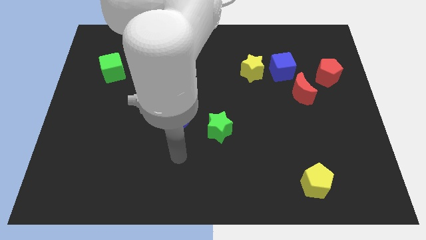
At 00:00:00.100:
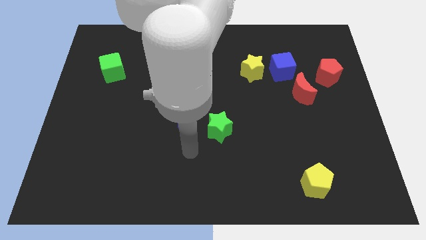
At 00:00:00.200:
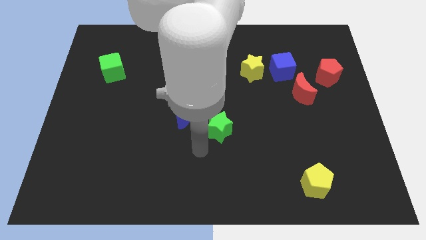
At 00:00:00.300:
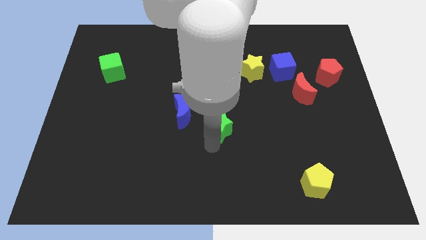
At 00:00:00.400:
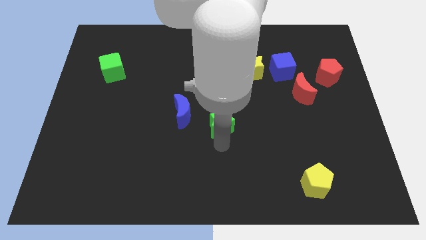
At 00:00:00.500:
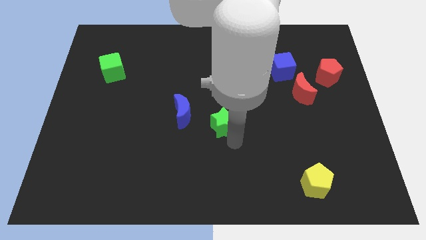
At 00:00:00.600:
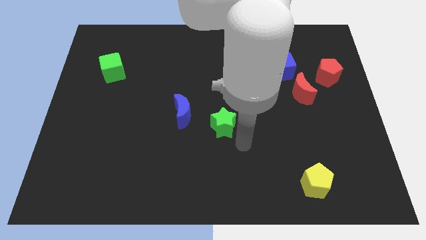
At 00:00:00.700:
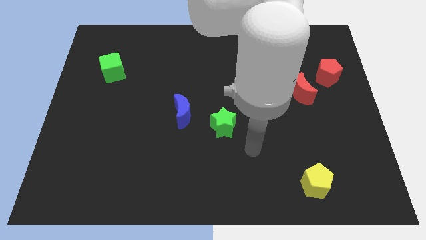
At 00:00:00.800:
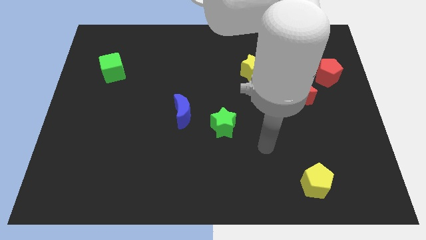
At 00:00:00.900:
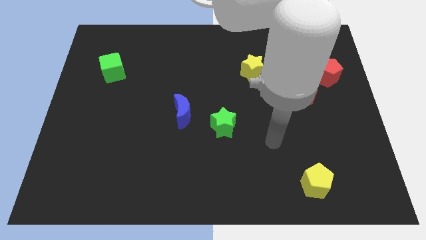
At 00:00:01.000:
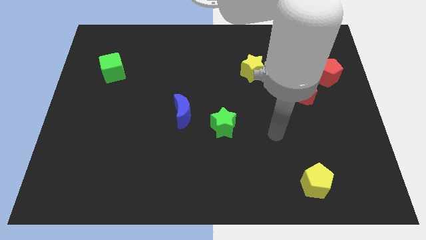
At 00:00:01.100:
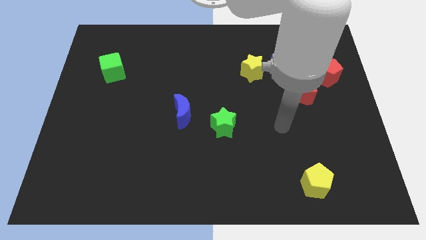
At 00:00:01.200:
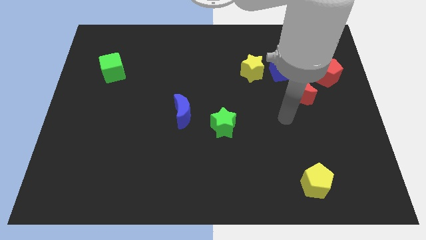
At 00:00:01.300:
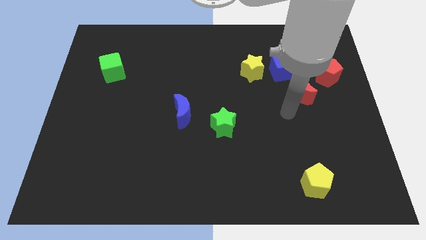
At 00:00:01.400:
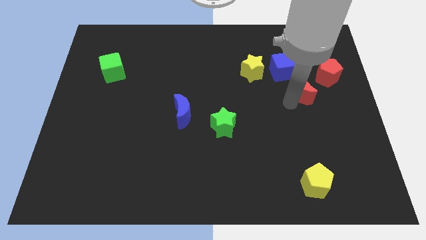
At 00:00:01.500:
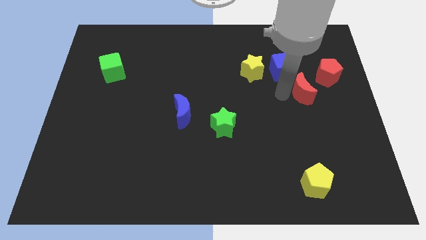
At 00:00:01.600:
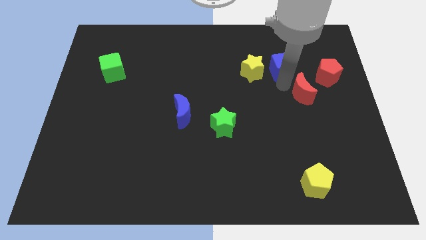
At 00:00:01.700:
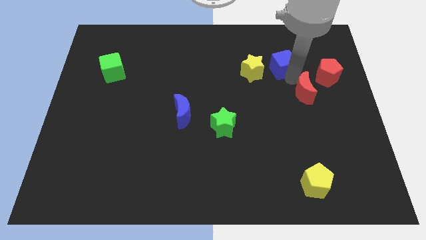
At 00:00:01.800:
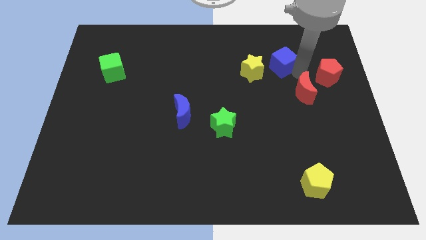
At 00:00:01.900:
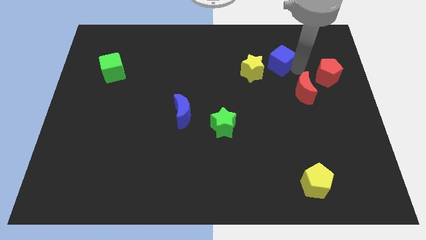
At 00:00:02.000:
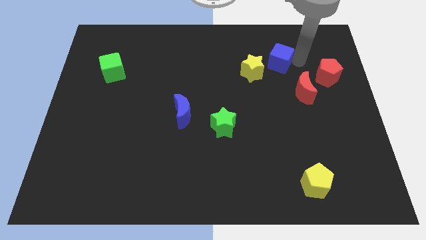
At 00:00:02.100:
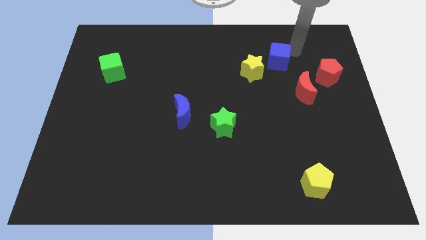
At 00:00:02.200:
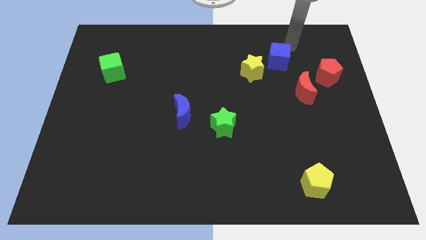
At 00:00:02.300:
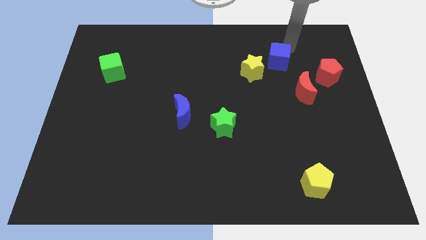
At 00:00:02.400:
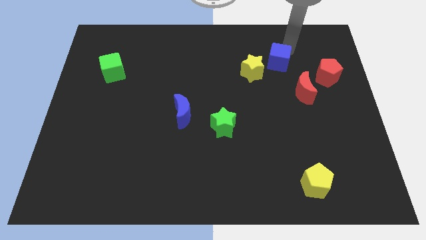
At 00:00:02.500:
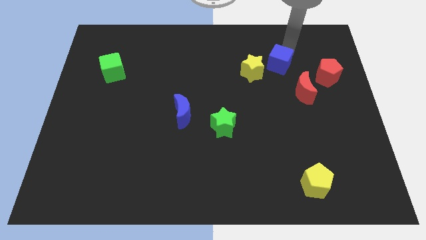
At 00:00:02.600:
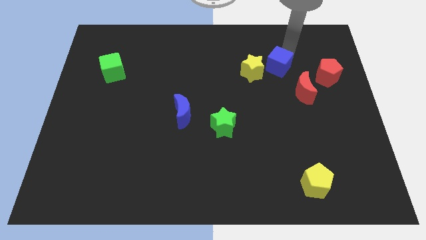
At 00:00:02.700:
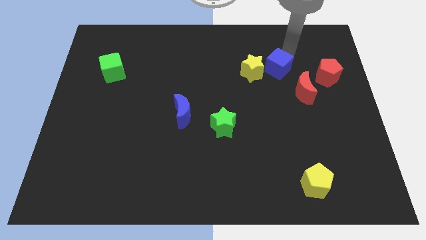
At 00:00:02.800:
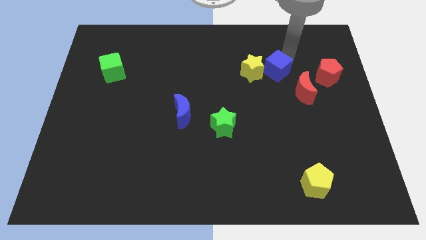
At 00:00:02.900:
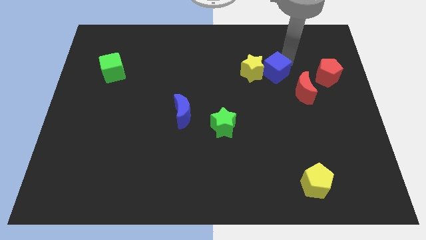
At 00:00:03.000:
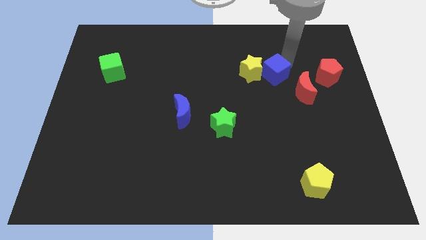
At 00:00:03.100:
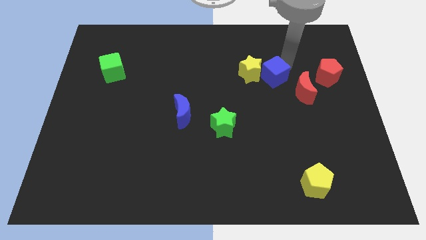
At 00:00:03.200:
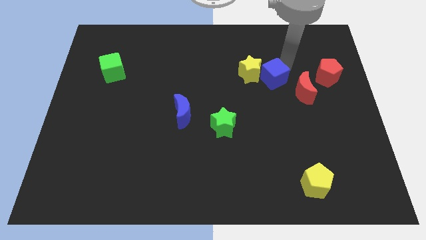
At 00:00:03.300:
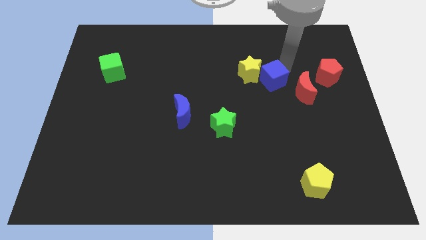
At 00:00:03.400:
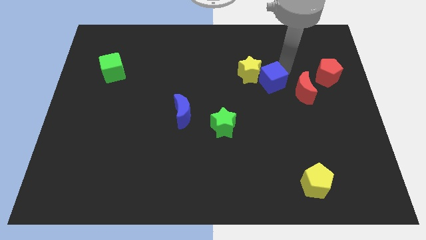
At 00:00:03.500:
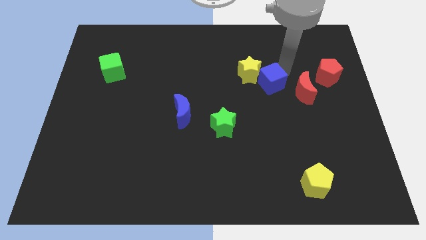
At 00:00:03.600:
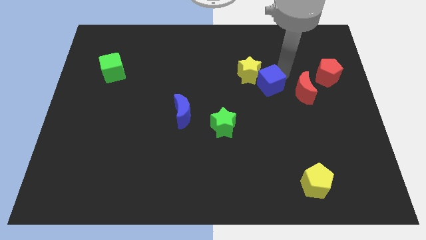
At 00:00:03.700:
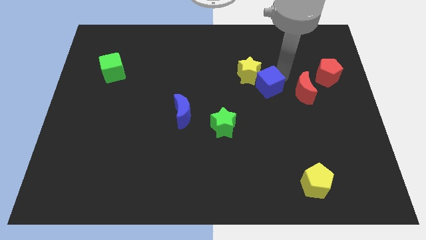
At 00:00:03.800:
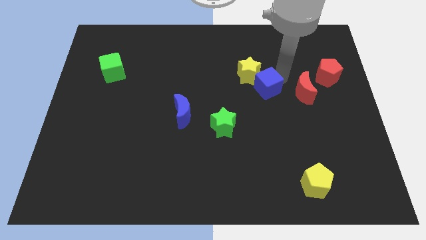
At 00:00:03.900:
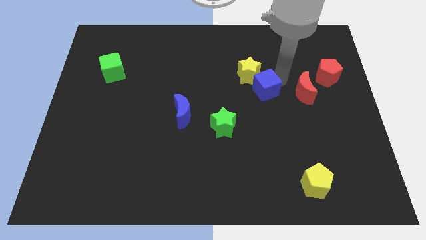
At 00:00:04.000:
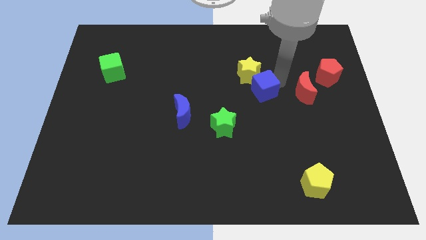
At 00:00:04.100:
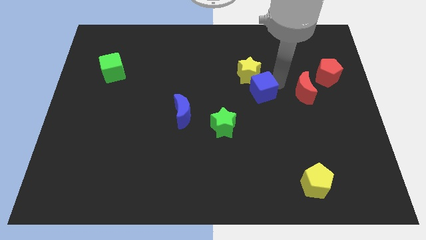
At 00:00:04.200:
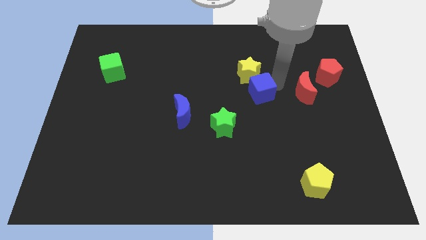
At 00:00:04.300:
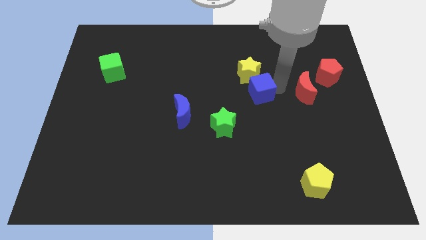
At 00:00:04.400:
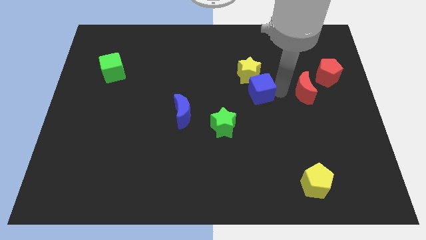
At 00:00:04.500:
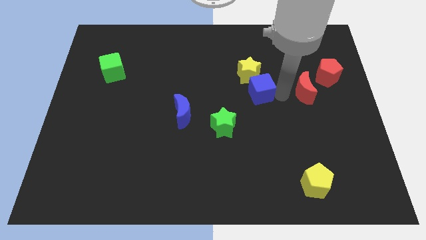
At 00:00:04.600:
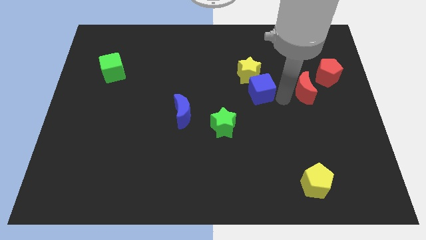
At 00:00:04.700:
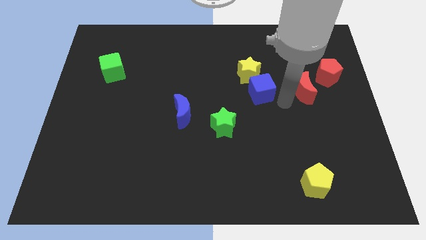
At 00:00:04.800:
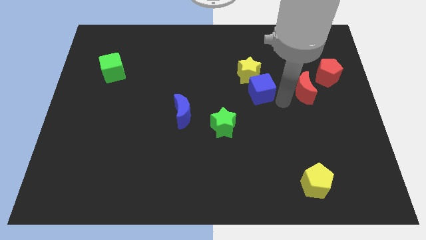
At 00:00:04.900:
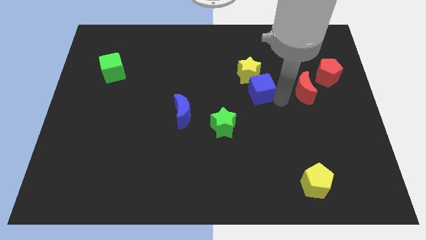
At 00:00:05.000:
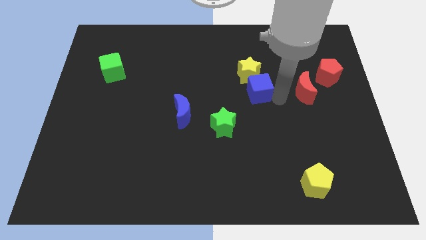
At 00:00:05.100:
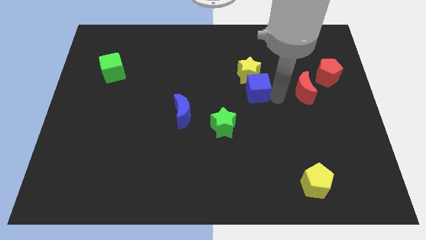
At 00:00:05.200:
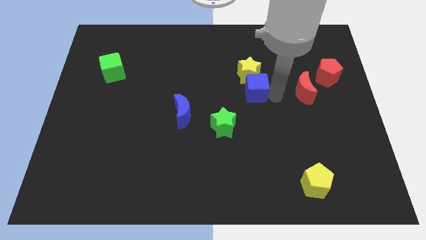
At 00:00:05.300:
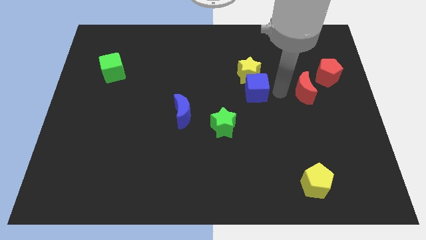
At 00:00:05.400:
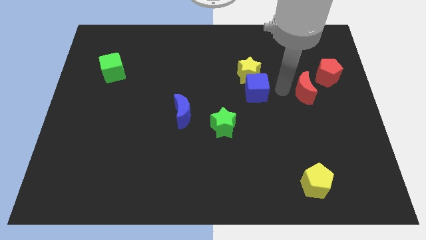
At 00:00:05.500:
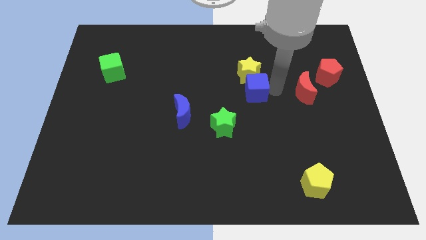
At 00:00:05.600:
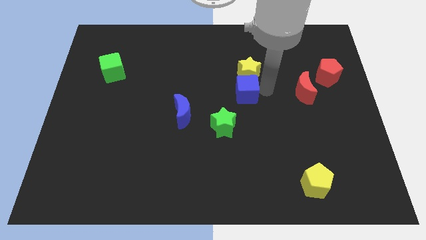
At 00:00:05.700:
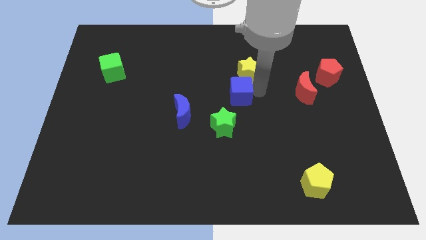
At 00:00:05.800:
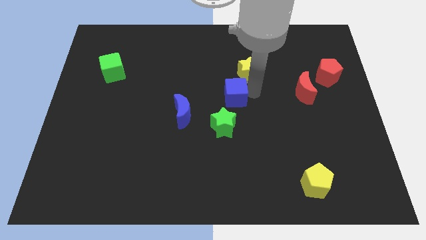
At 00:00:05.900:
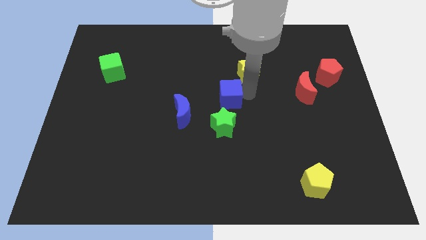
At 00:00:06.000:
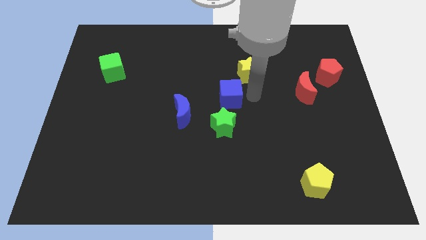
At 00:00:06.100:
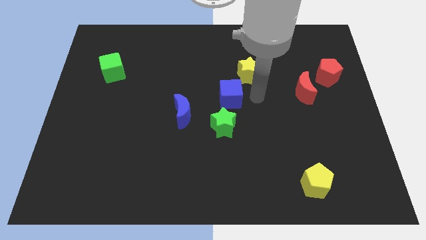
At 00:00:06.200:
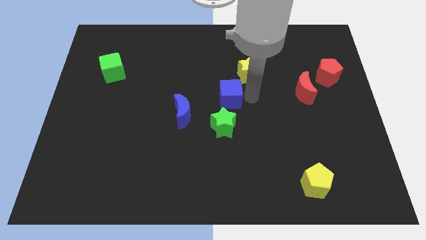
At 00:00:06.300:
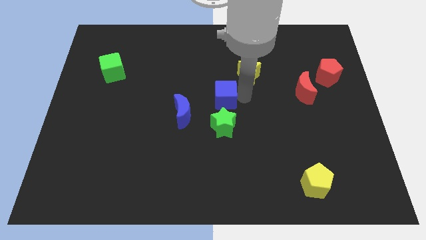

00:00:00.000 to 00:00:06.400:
slide the blue cube diagonally up and to the right of the blue moon

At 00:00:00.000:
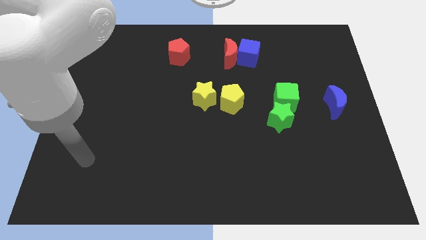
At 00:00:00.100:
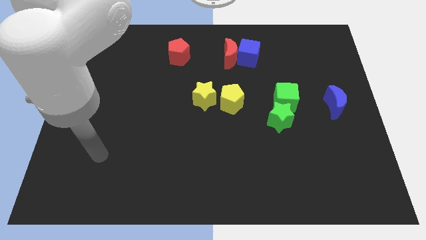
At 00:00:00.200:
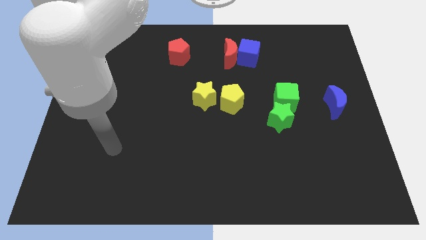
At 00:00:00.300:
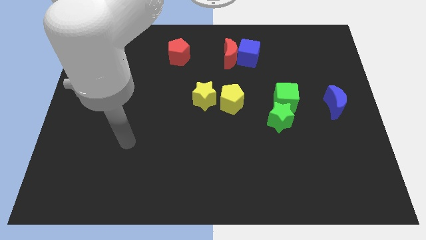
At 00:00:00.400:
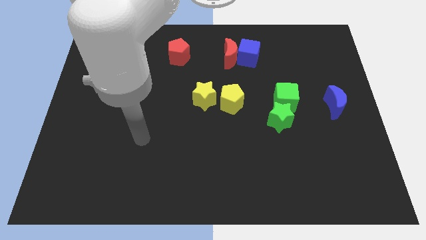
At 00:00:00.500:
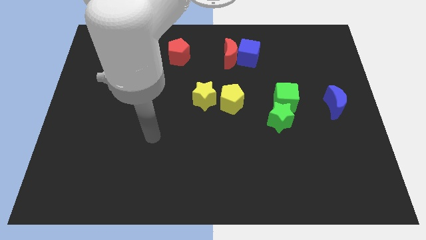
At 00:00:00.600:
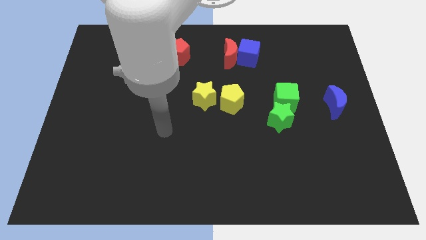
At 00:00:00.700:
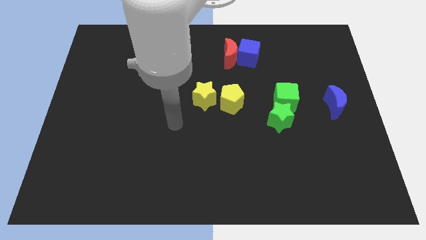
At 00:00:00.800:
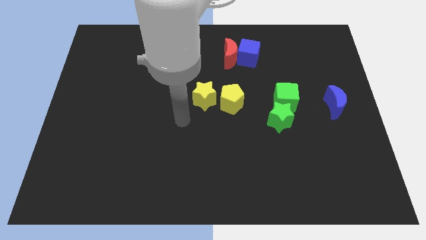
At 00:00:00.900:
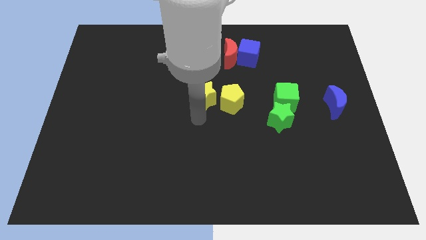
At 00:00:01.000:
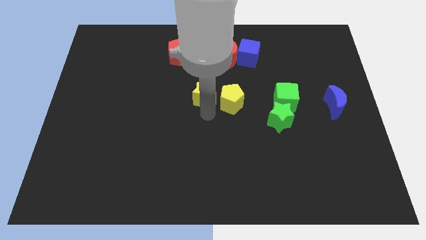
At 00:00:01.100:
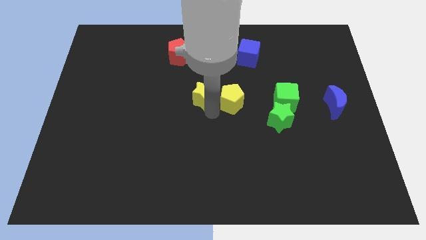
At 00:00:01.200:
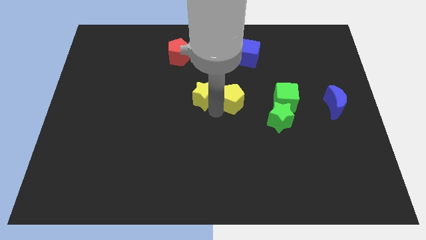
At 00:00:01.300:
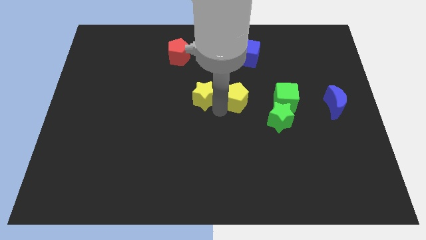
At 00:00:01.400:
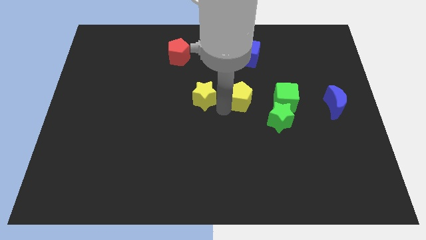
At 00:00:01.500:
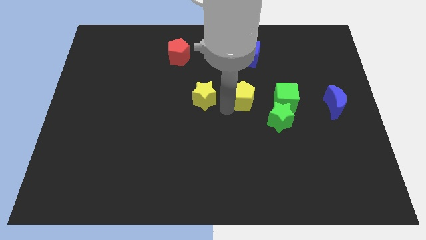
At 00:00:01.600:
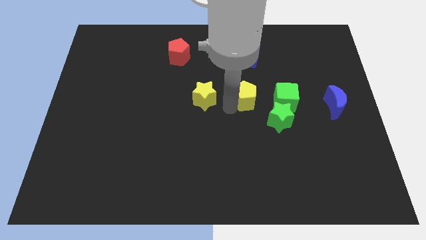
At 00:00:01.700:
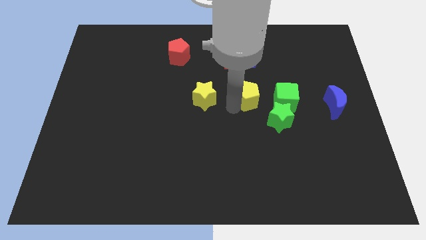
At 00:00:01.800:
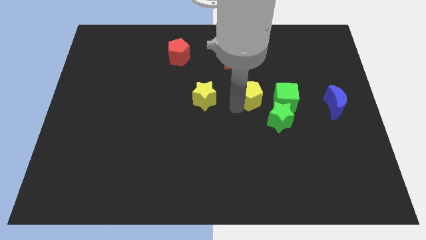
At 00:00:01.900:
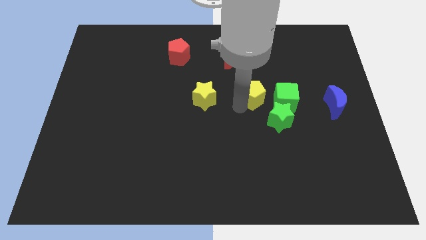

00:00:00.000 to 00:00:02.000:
slide the yellow pentagon diagonally up and to the left of the green cube
